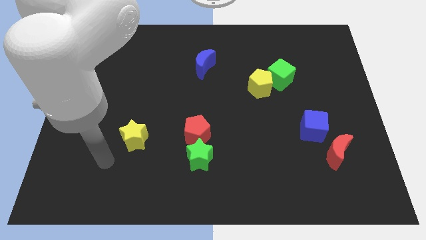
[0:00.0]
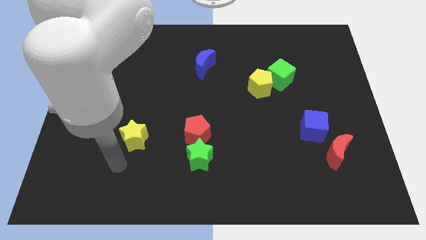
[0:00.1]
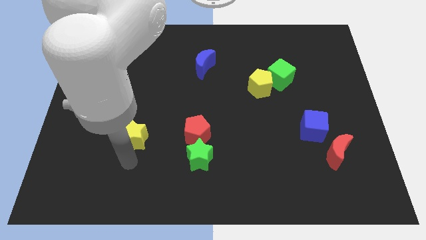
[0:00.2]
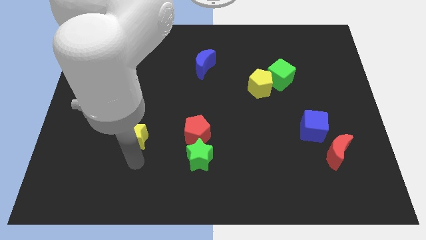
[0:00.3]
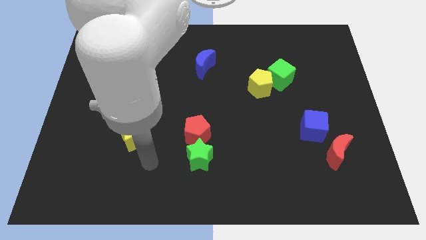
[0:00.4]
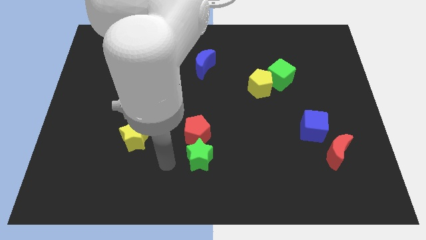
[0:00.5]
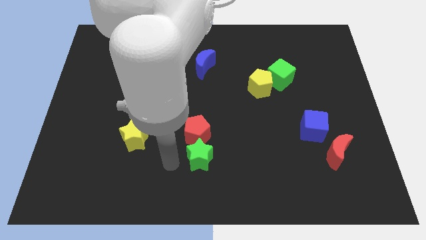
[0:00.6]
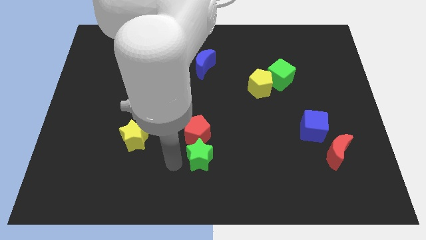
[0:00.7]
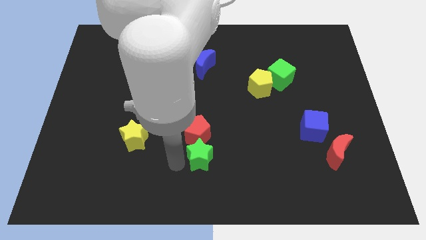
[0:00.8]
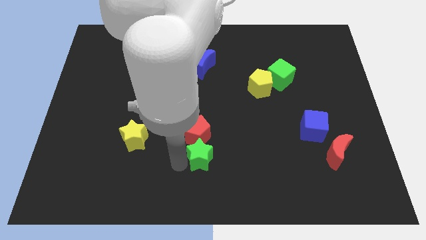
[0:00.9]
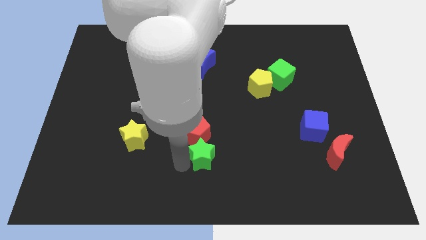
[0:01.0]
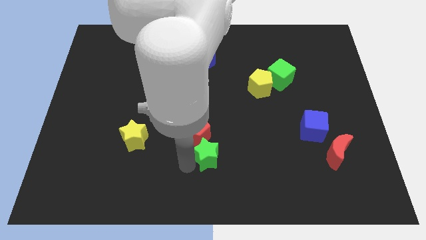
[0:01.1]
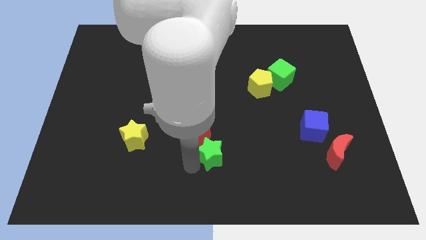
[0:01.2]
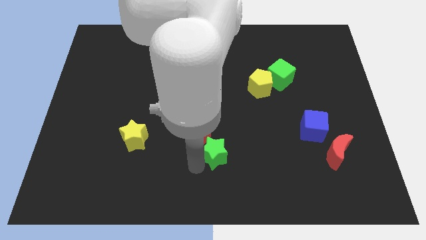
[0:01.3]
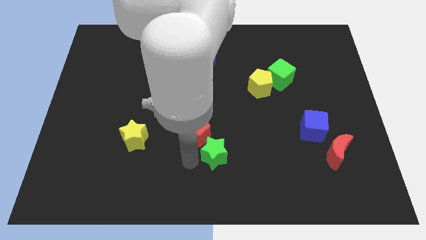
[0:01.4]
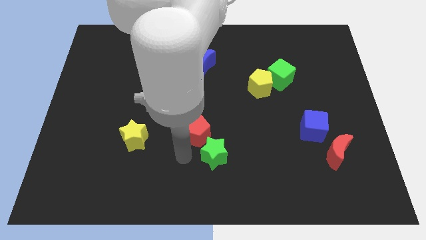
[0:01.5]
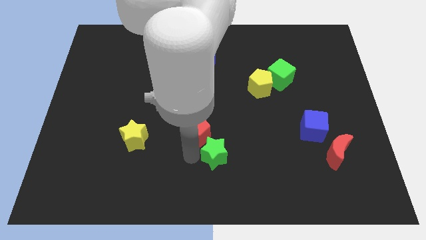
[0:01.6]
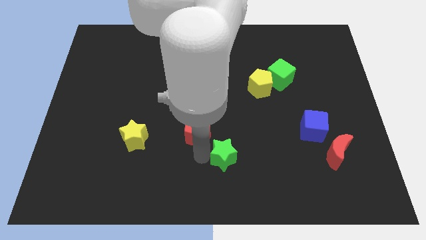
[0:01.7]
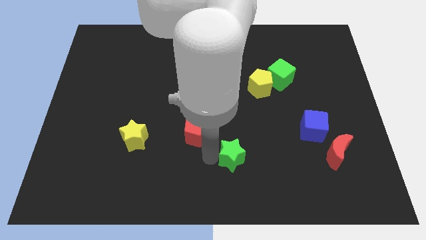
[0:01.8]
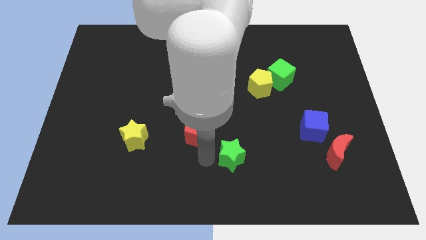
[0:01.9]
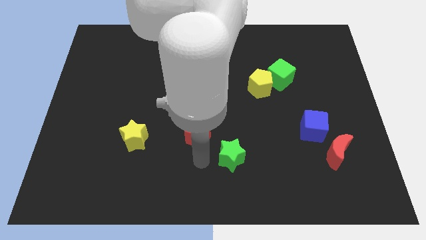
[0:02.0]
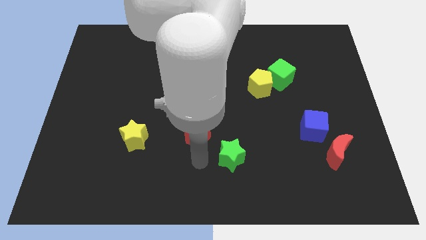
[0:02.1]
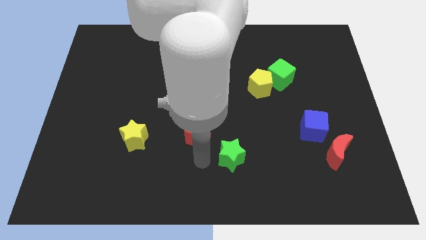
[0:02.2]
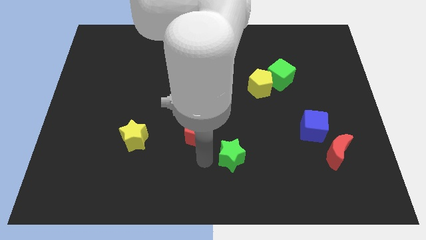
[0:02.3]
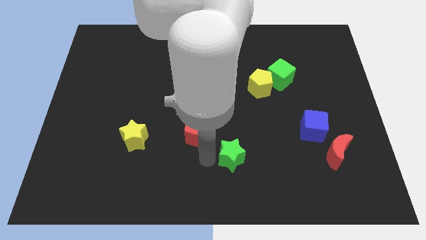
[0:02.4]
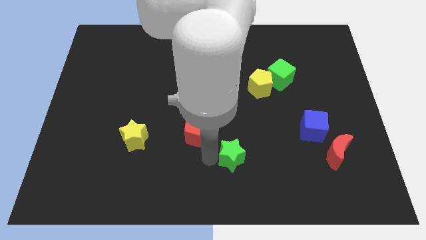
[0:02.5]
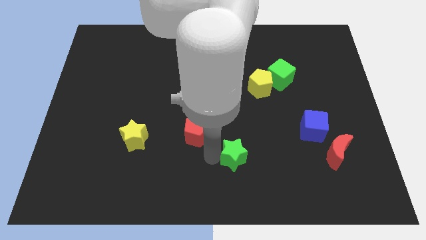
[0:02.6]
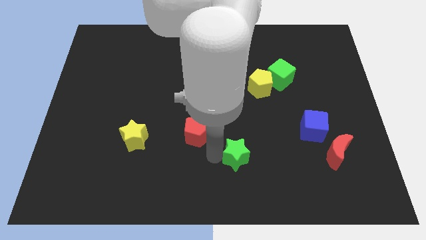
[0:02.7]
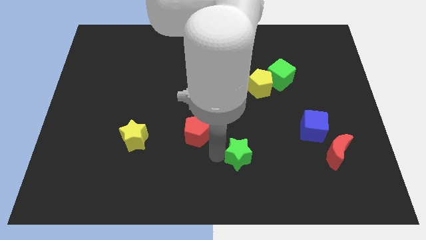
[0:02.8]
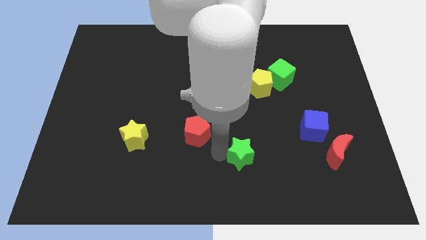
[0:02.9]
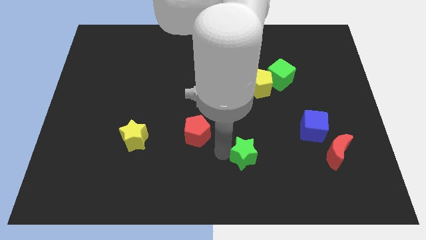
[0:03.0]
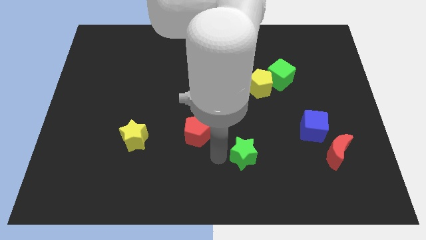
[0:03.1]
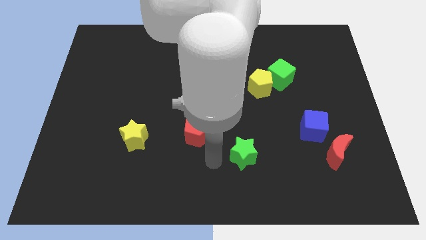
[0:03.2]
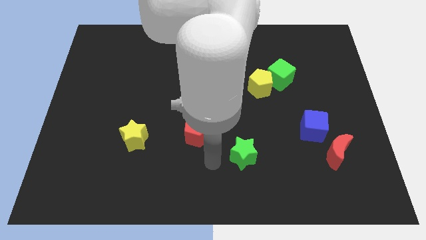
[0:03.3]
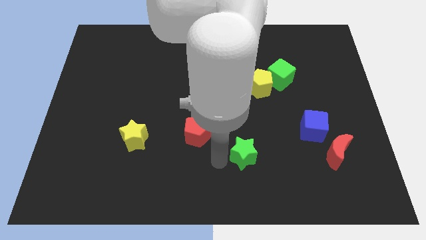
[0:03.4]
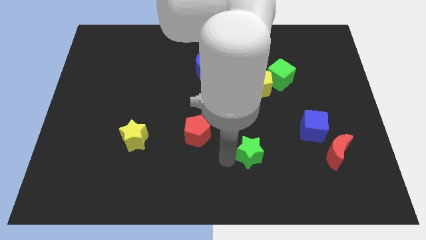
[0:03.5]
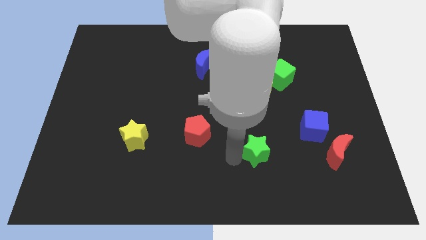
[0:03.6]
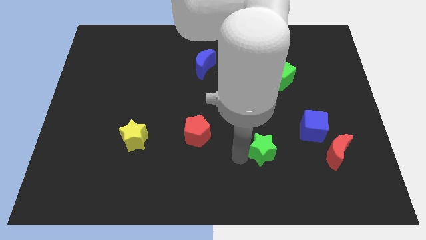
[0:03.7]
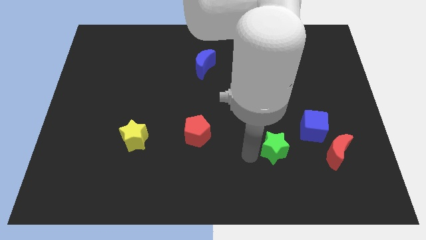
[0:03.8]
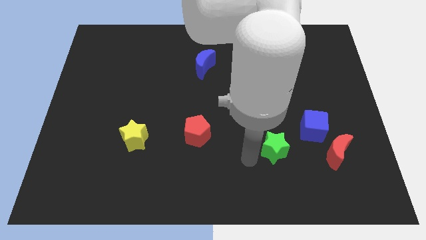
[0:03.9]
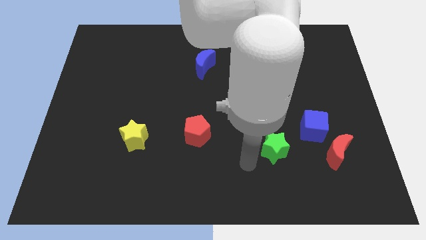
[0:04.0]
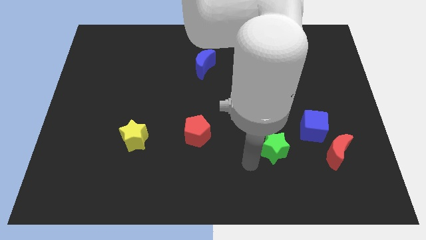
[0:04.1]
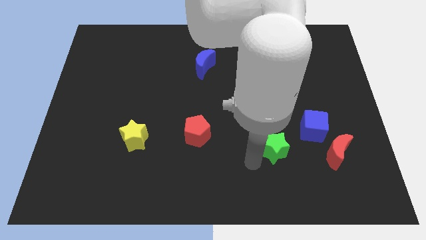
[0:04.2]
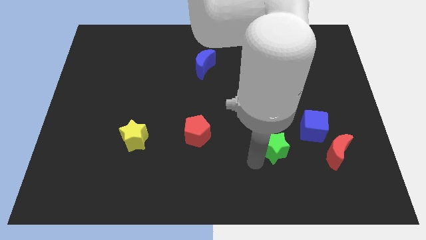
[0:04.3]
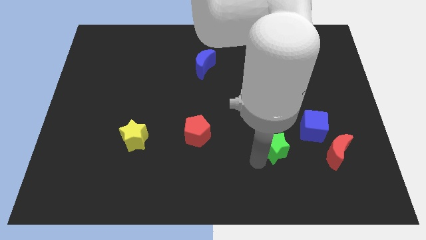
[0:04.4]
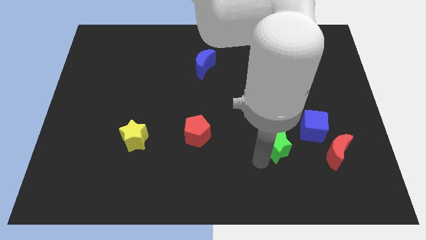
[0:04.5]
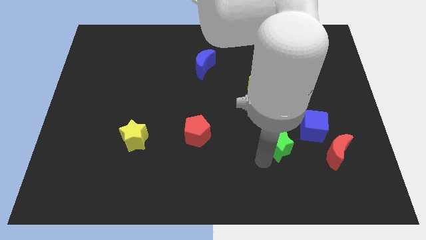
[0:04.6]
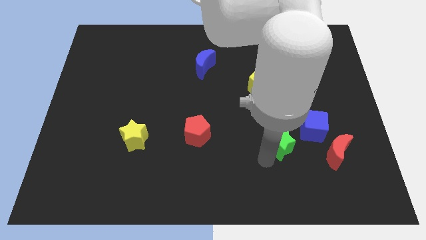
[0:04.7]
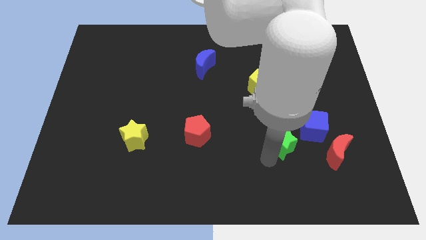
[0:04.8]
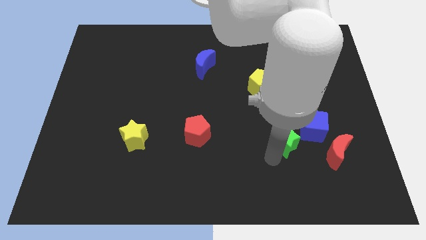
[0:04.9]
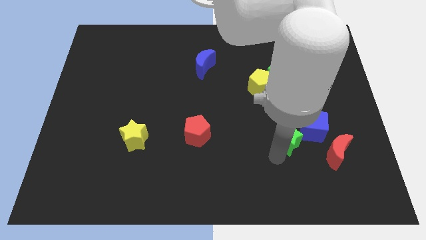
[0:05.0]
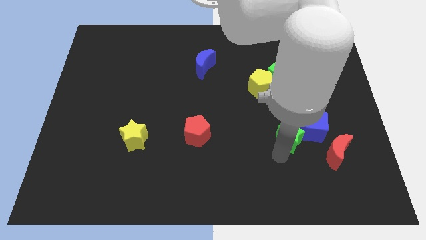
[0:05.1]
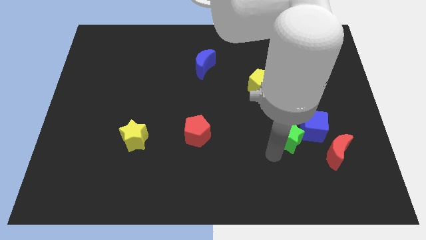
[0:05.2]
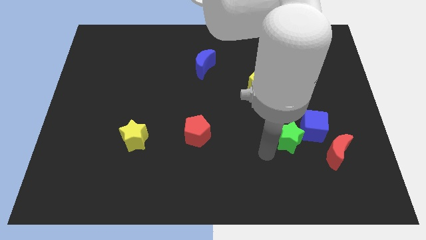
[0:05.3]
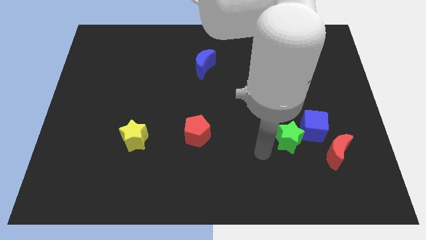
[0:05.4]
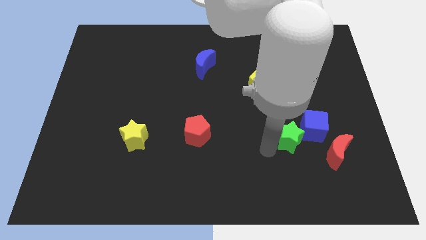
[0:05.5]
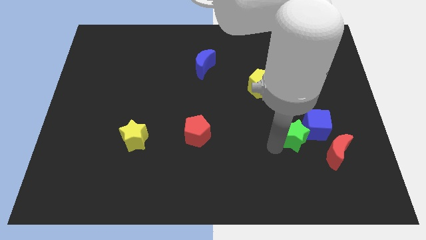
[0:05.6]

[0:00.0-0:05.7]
slide the green star towards the blue cube

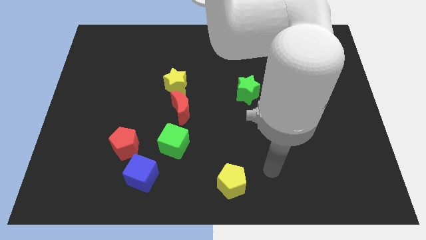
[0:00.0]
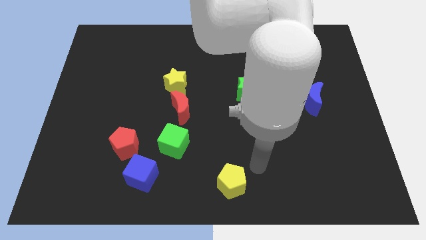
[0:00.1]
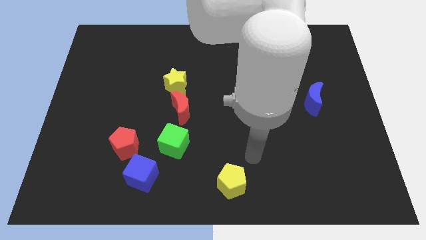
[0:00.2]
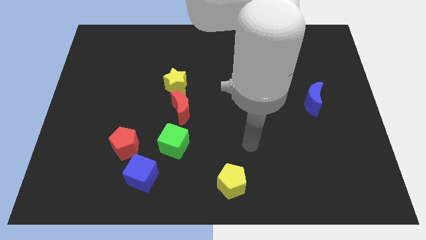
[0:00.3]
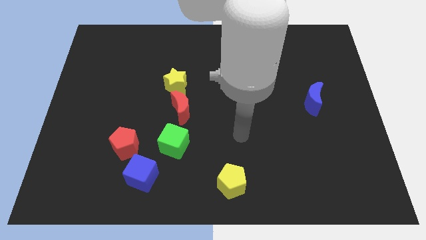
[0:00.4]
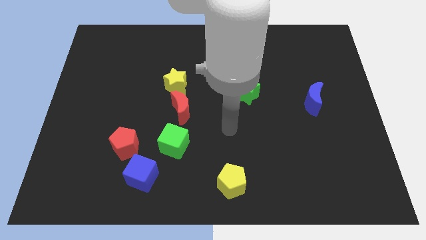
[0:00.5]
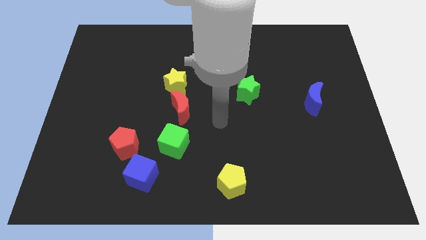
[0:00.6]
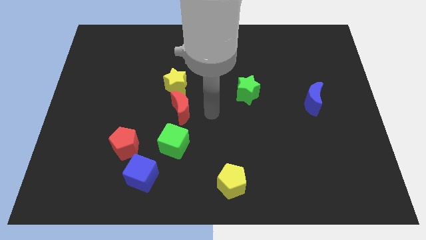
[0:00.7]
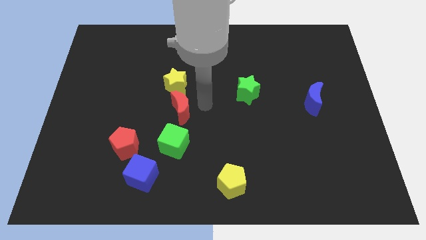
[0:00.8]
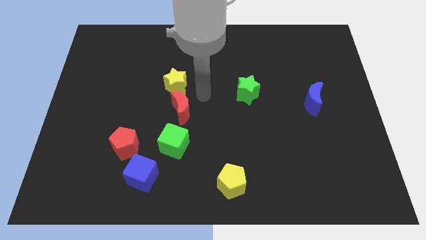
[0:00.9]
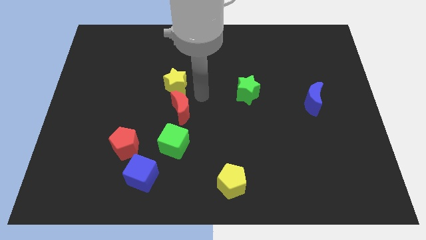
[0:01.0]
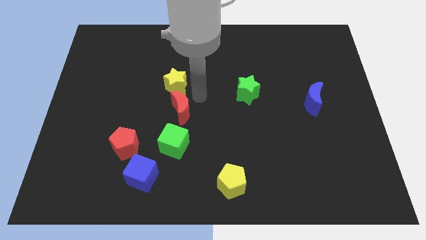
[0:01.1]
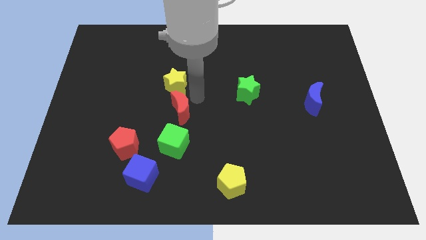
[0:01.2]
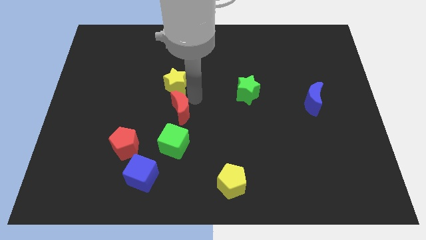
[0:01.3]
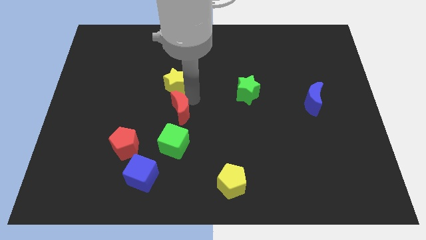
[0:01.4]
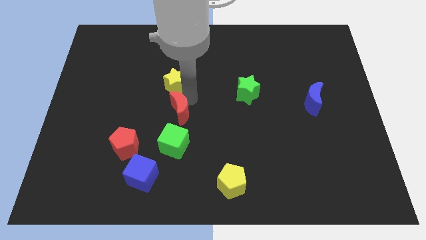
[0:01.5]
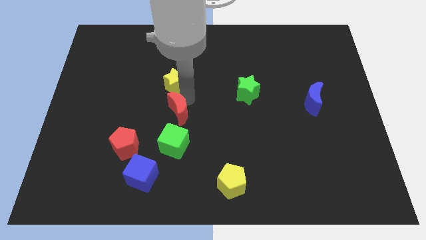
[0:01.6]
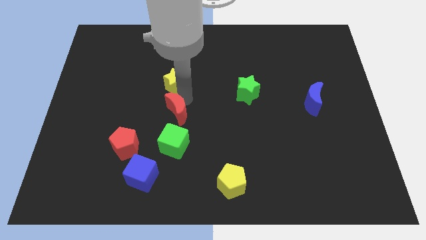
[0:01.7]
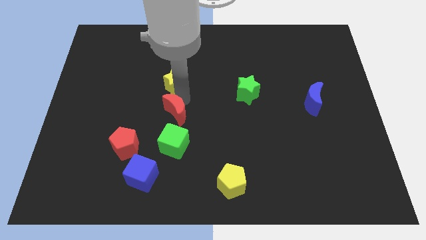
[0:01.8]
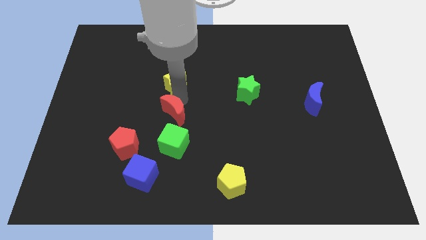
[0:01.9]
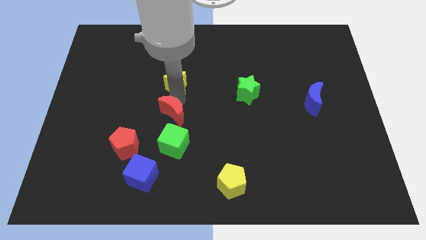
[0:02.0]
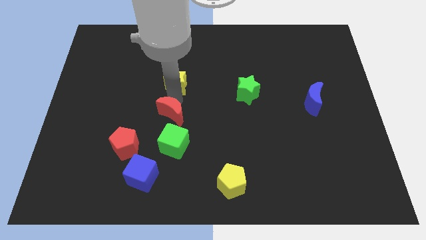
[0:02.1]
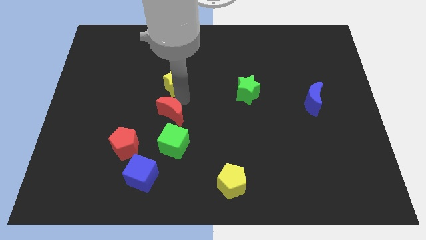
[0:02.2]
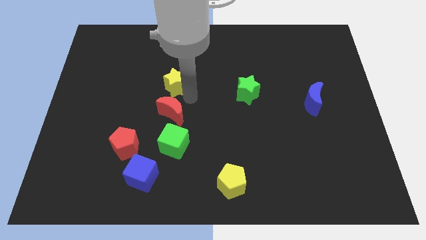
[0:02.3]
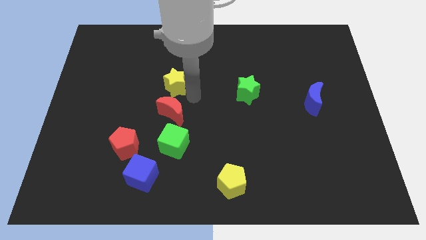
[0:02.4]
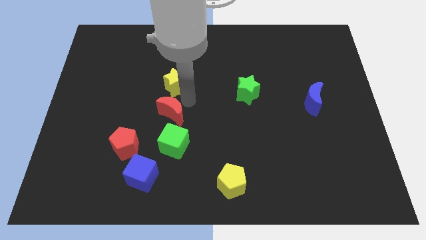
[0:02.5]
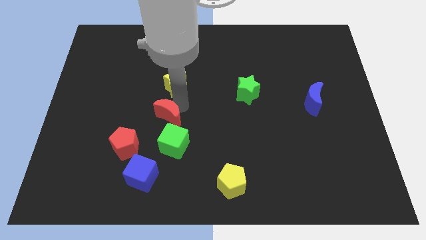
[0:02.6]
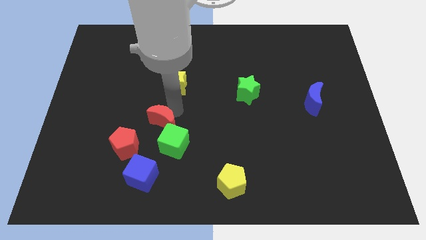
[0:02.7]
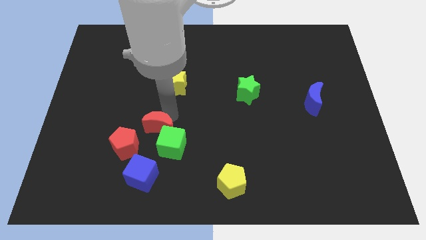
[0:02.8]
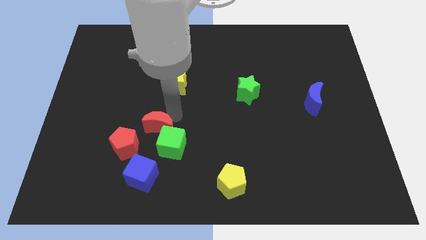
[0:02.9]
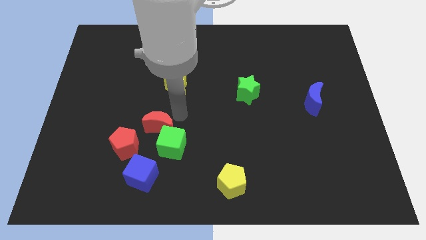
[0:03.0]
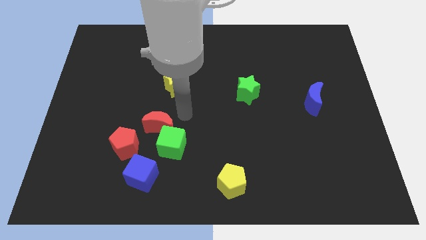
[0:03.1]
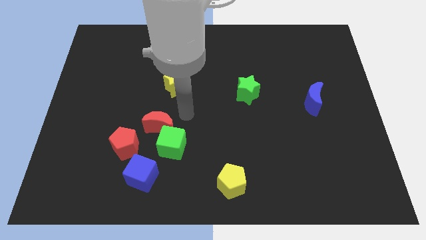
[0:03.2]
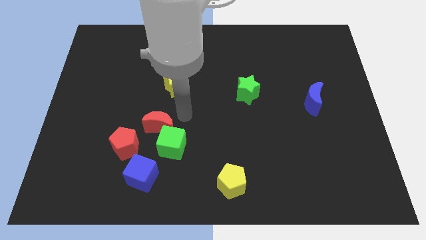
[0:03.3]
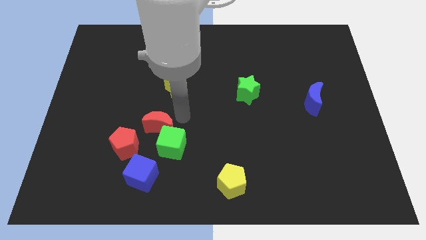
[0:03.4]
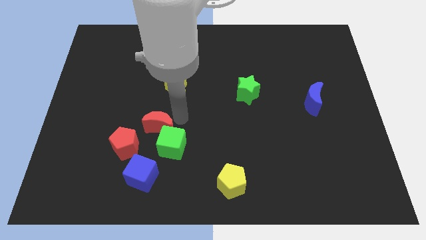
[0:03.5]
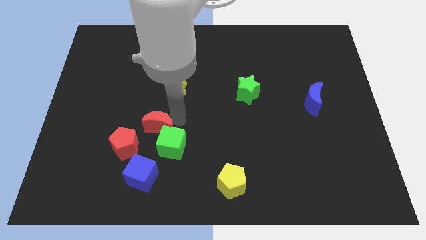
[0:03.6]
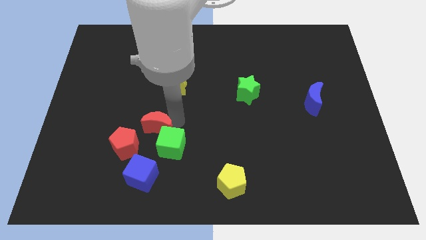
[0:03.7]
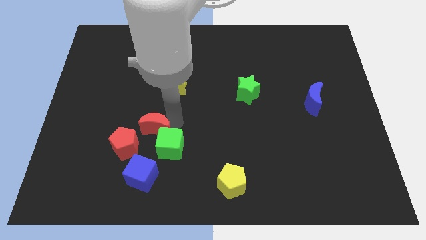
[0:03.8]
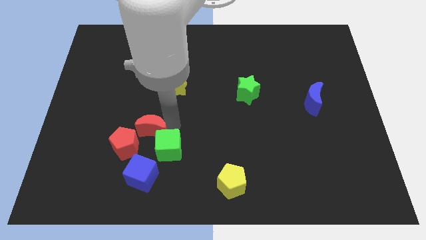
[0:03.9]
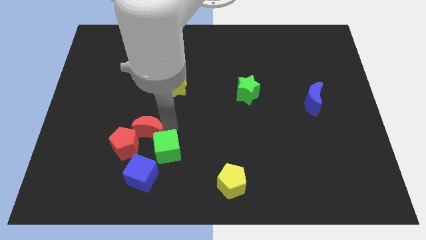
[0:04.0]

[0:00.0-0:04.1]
push the red moon next to the red pentagon
